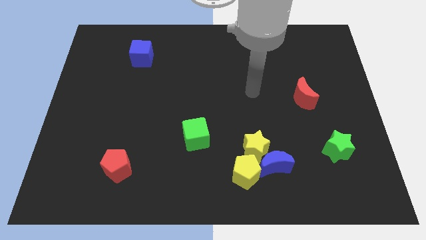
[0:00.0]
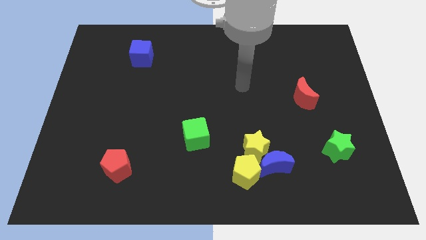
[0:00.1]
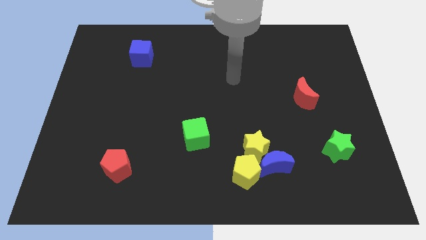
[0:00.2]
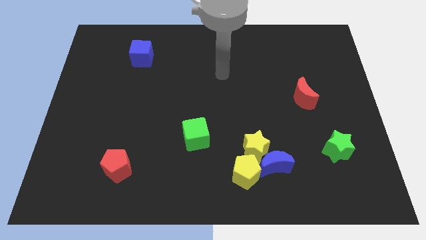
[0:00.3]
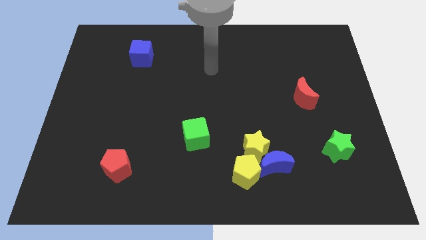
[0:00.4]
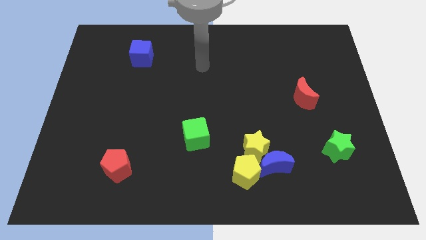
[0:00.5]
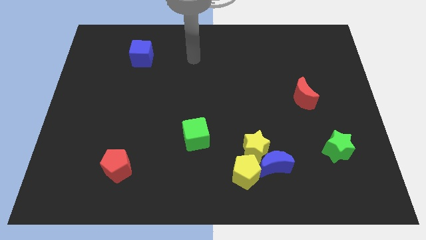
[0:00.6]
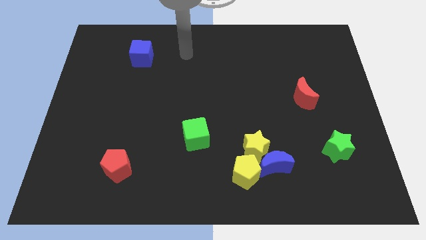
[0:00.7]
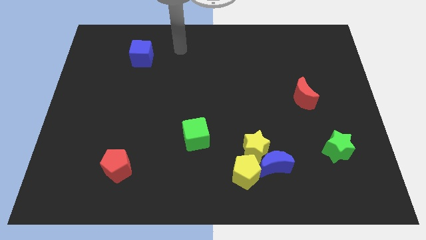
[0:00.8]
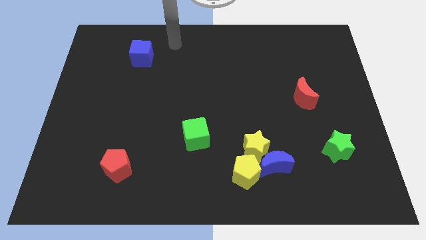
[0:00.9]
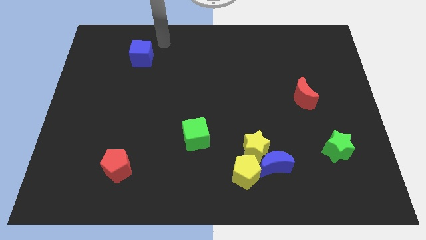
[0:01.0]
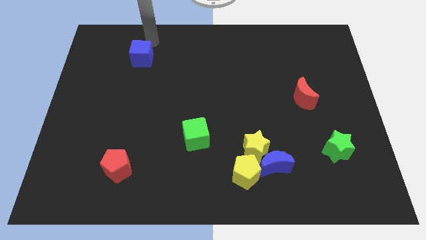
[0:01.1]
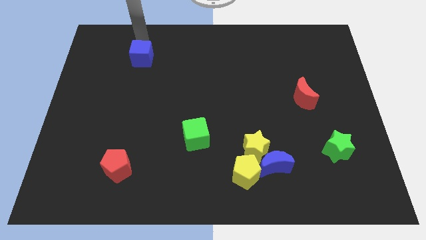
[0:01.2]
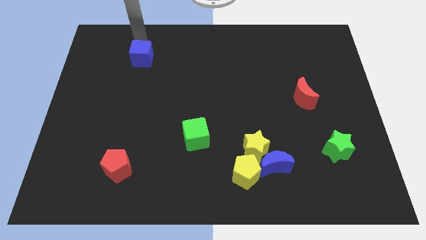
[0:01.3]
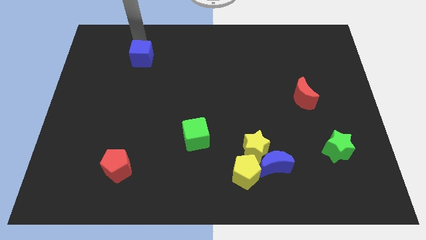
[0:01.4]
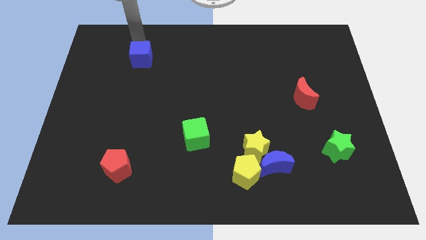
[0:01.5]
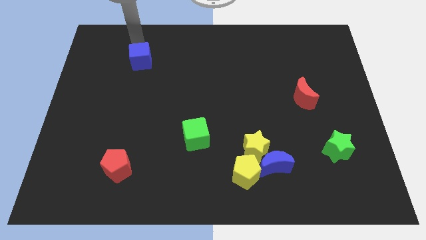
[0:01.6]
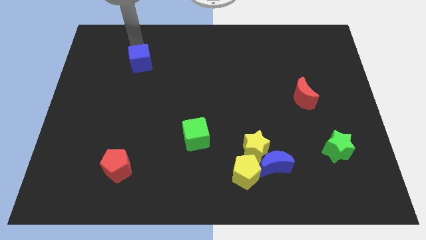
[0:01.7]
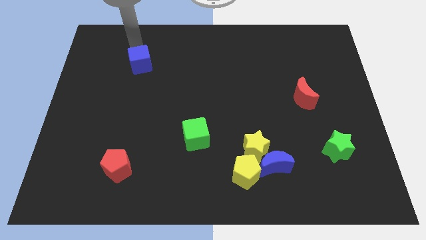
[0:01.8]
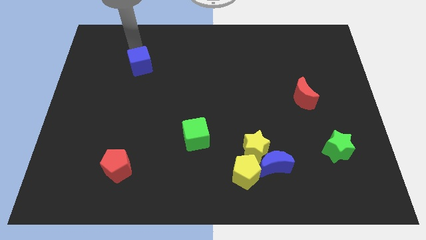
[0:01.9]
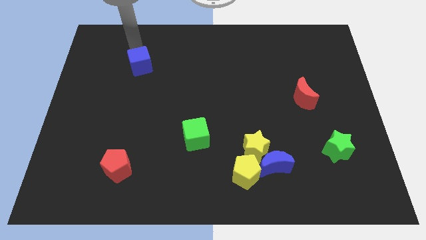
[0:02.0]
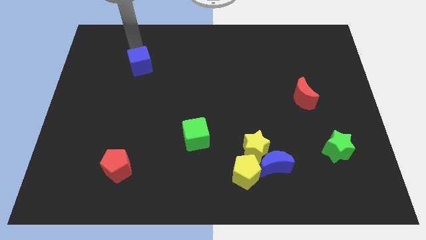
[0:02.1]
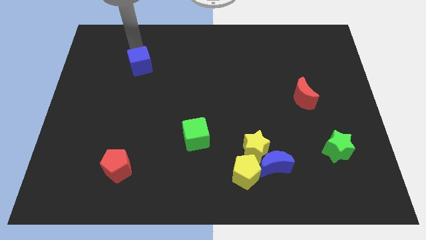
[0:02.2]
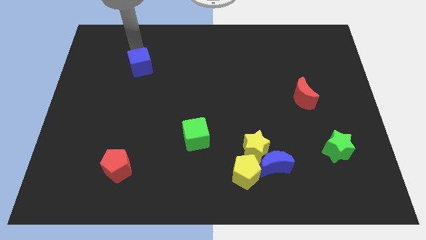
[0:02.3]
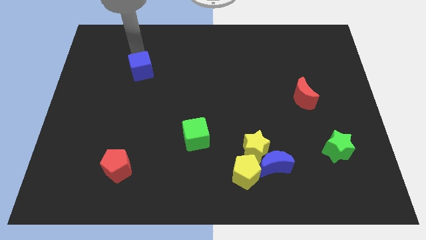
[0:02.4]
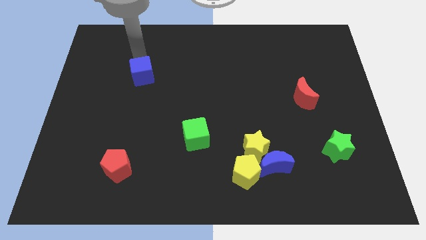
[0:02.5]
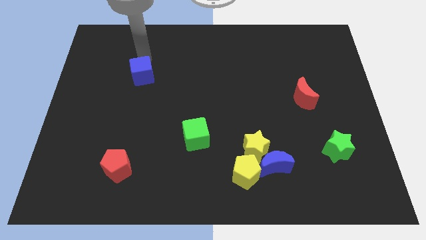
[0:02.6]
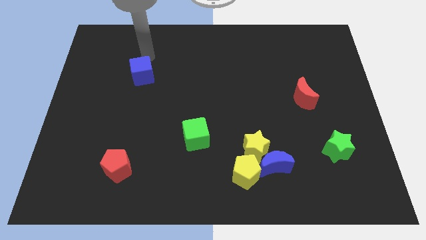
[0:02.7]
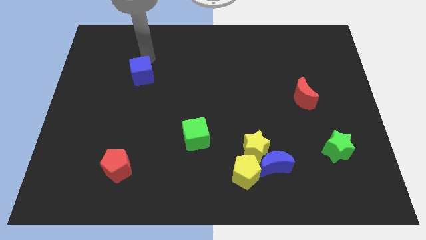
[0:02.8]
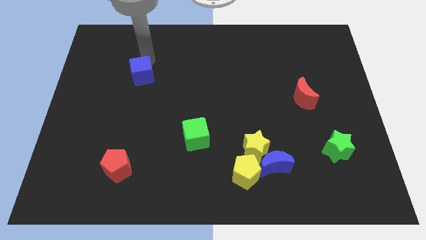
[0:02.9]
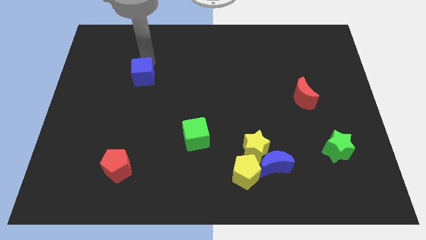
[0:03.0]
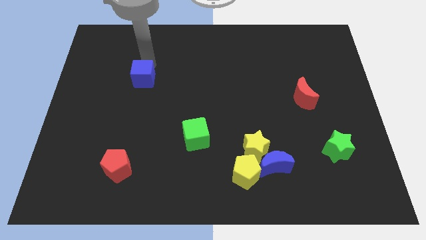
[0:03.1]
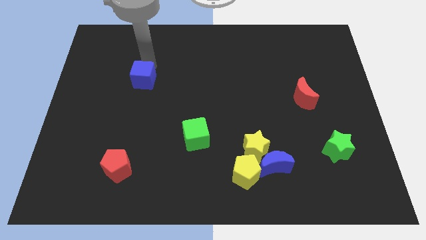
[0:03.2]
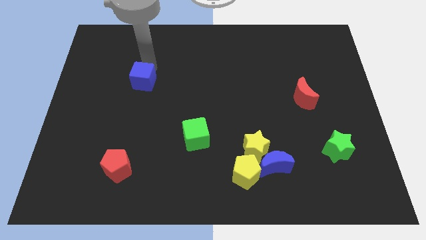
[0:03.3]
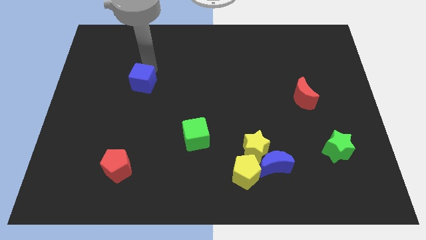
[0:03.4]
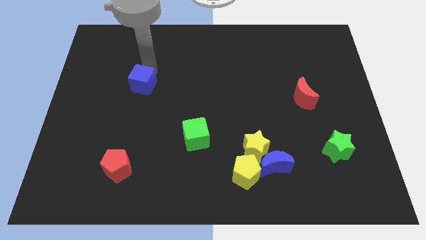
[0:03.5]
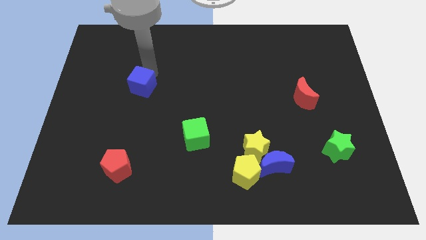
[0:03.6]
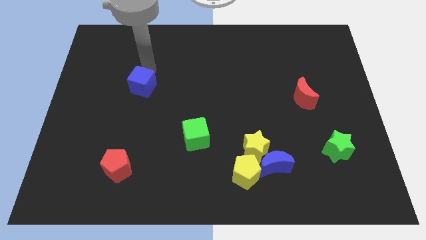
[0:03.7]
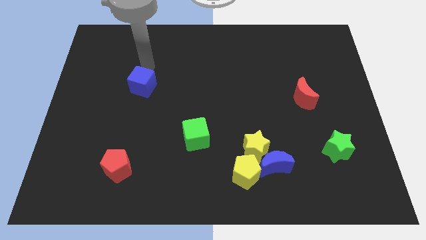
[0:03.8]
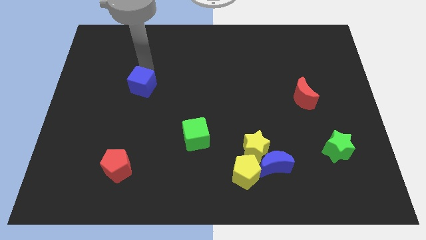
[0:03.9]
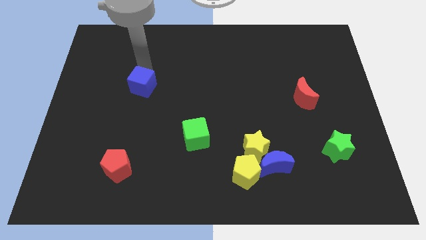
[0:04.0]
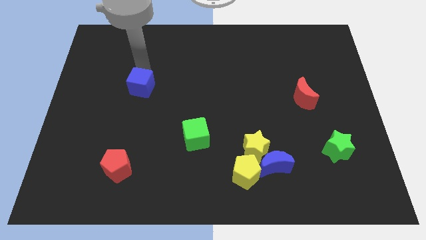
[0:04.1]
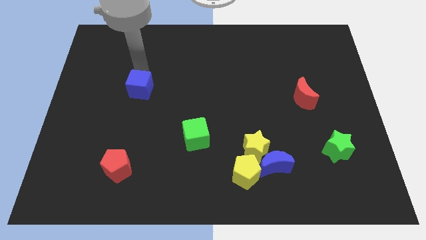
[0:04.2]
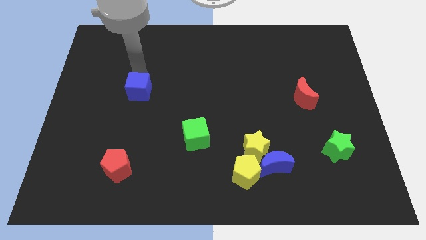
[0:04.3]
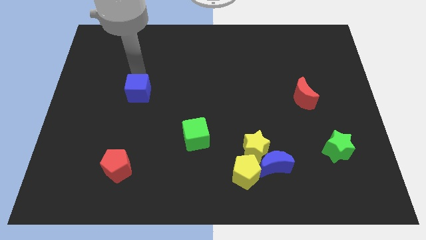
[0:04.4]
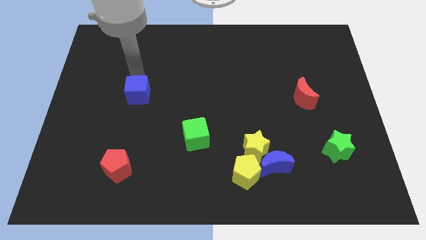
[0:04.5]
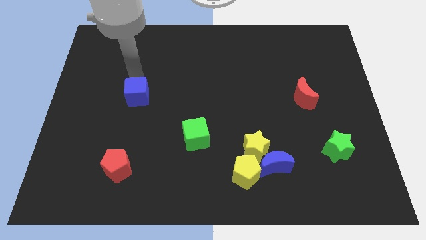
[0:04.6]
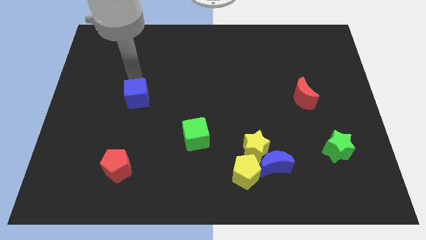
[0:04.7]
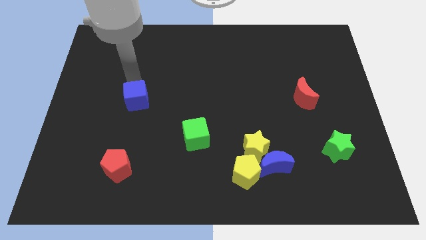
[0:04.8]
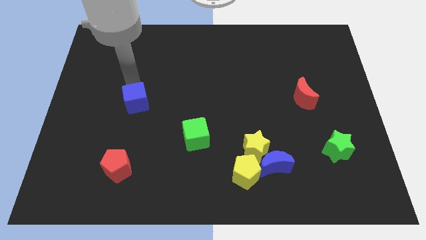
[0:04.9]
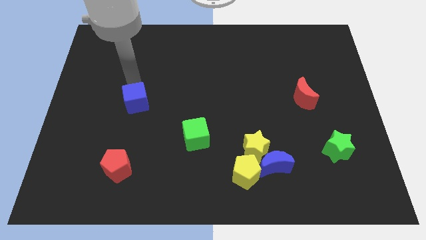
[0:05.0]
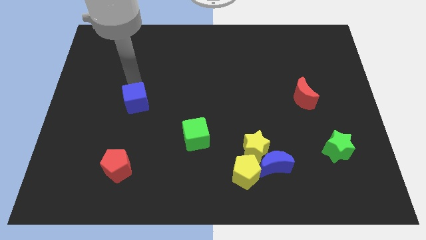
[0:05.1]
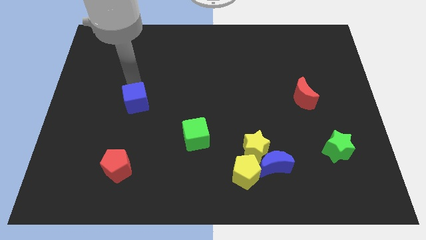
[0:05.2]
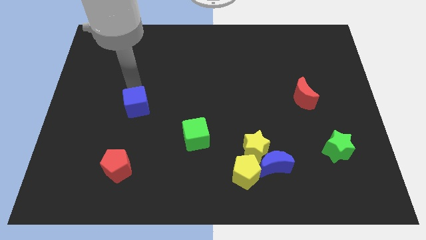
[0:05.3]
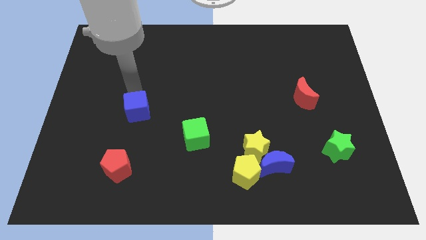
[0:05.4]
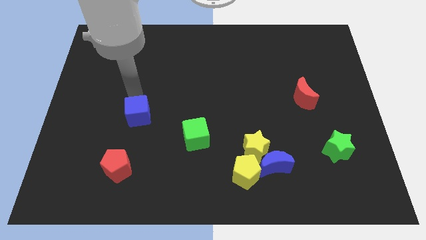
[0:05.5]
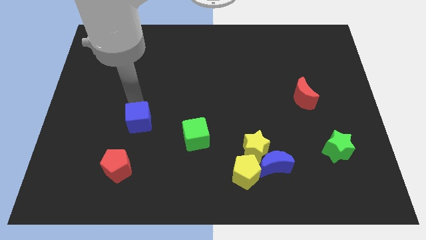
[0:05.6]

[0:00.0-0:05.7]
push the blue cube just left of the green cube

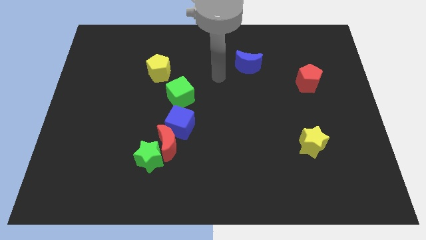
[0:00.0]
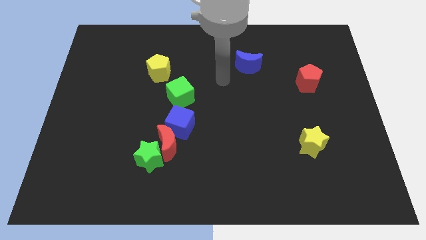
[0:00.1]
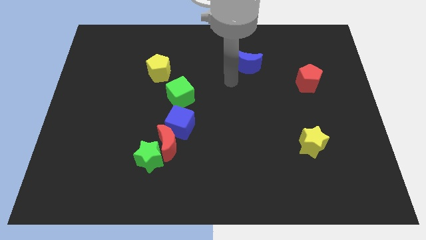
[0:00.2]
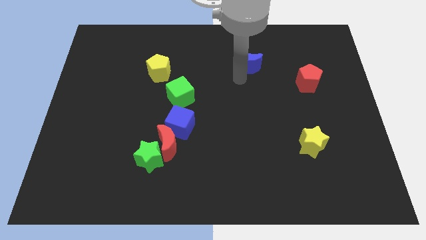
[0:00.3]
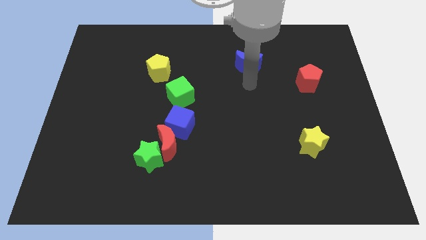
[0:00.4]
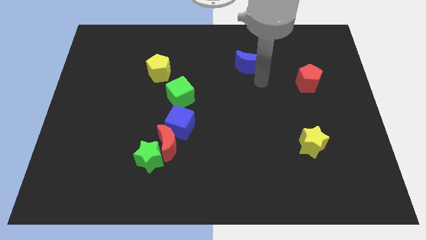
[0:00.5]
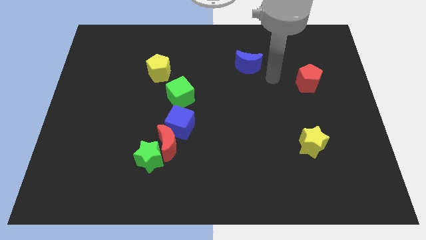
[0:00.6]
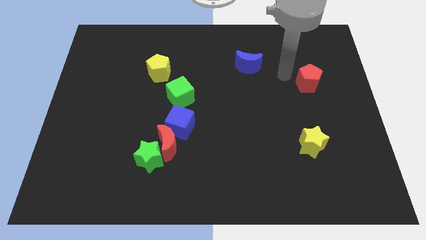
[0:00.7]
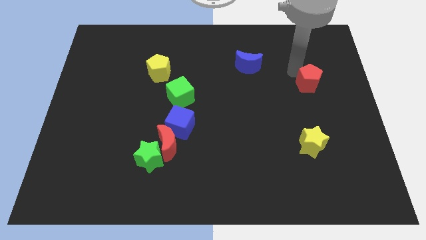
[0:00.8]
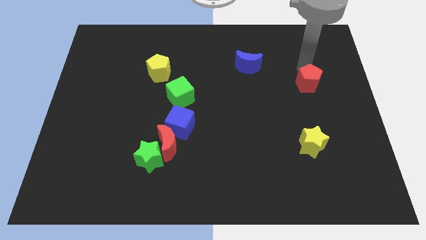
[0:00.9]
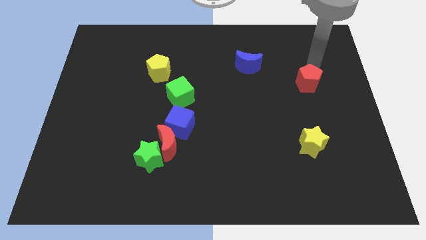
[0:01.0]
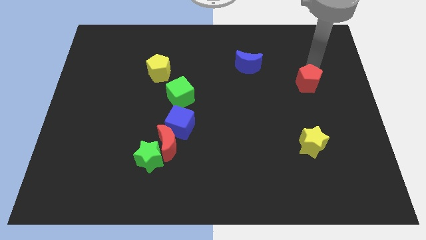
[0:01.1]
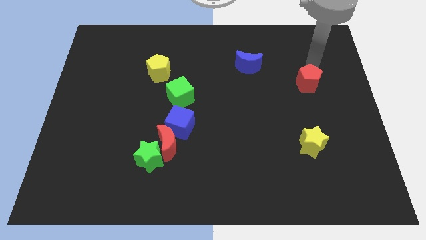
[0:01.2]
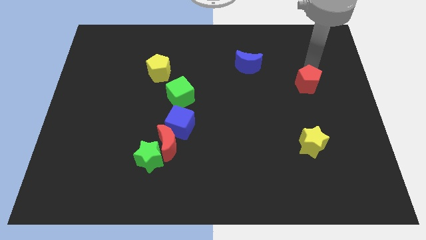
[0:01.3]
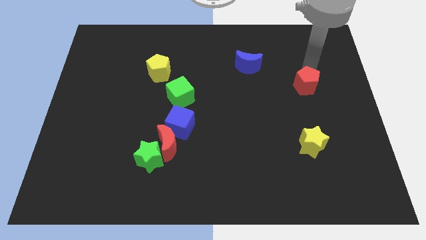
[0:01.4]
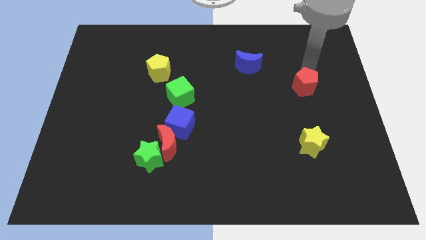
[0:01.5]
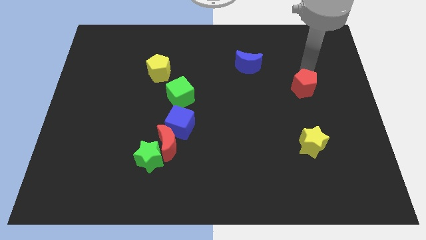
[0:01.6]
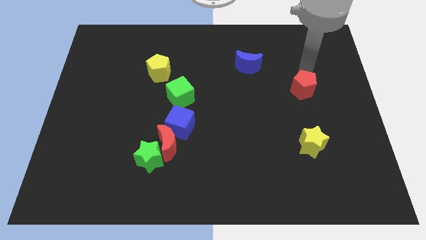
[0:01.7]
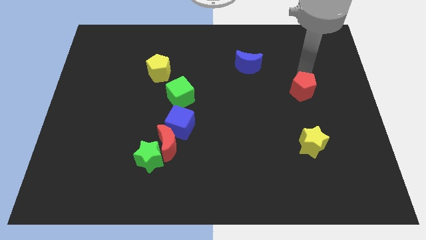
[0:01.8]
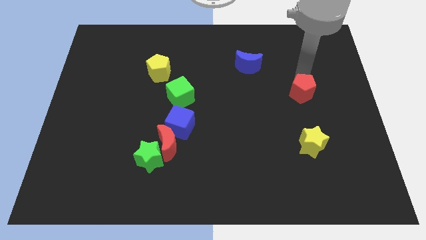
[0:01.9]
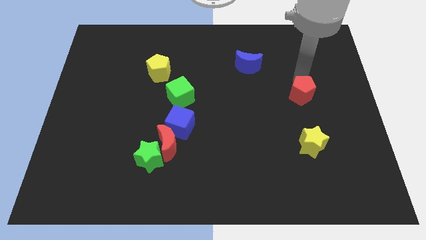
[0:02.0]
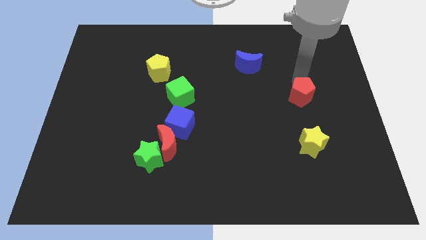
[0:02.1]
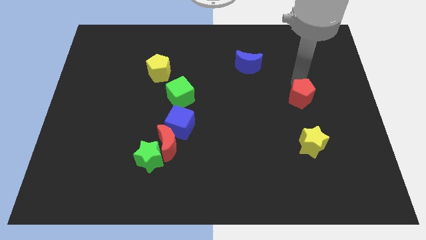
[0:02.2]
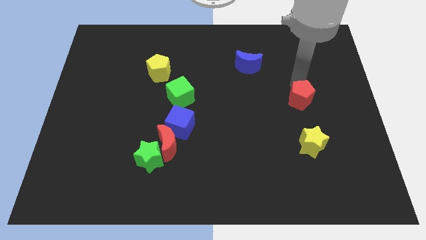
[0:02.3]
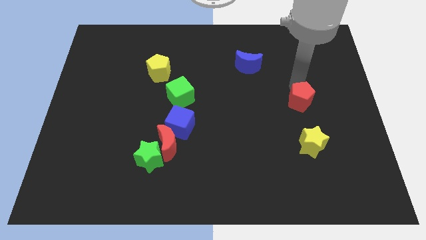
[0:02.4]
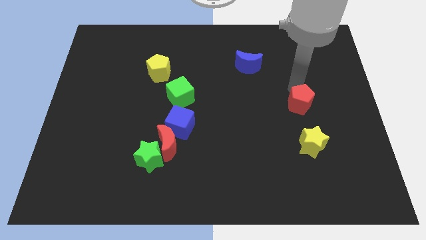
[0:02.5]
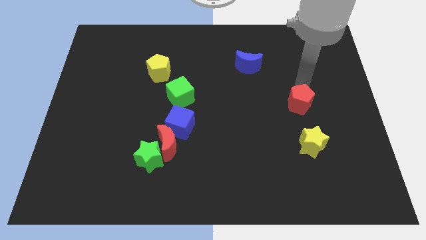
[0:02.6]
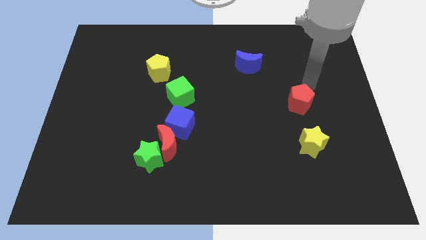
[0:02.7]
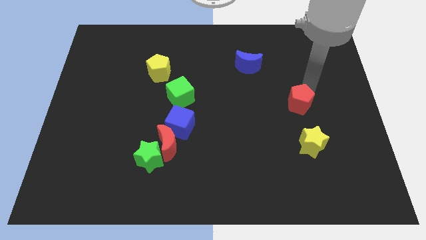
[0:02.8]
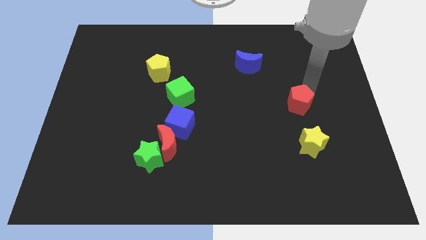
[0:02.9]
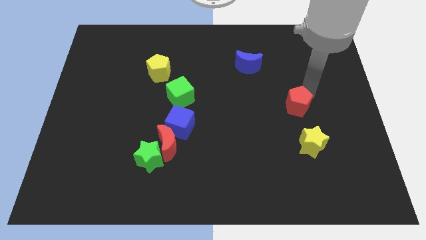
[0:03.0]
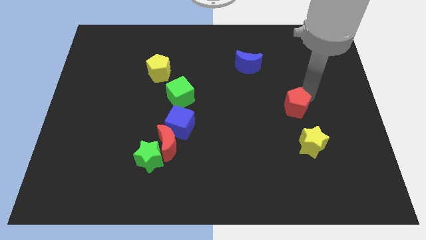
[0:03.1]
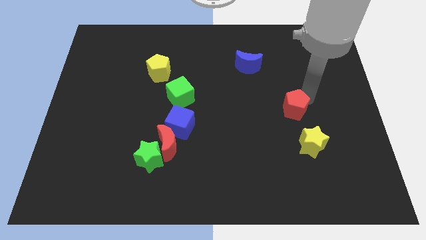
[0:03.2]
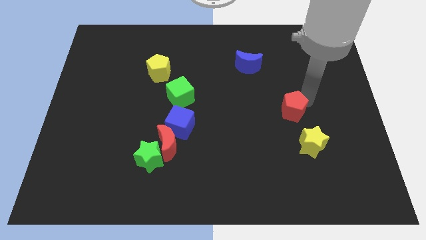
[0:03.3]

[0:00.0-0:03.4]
slide the red pentagon to the top left of the yellow star
